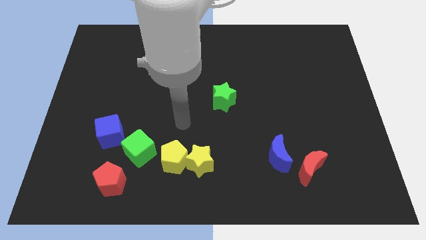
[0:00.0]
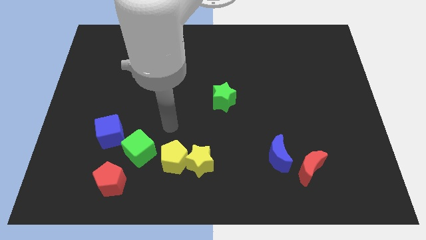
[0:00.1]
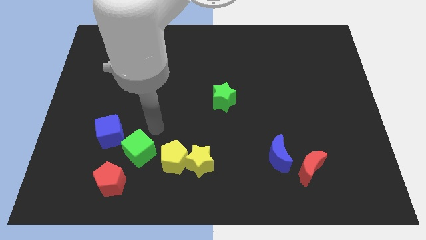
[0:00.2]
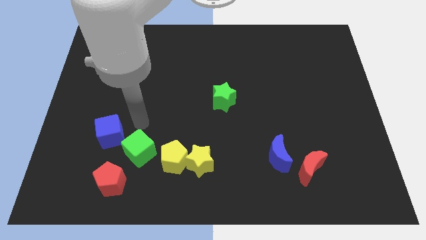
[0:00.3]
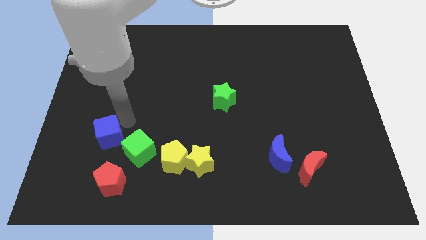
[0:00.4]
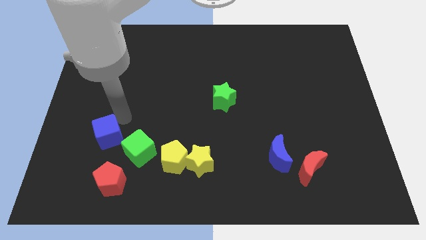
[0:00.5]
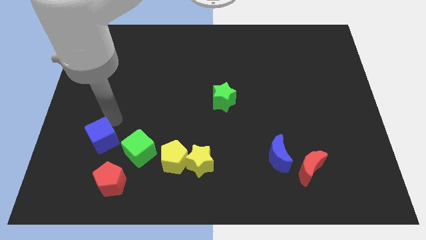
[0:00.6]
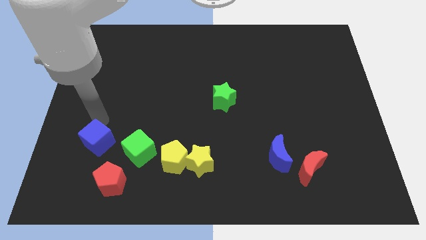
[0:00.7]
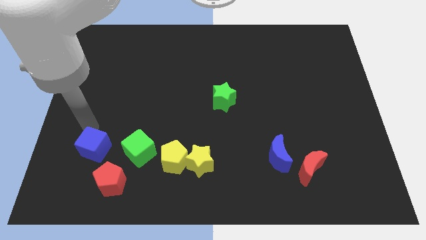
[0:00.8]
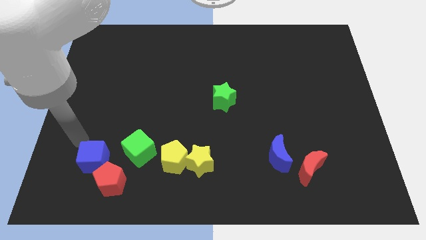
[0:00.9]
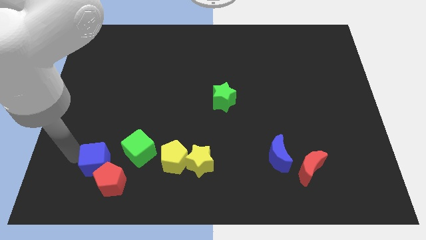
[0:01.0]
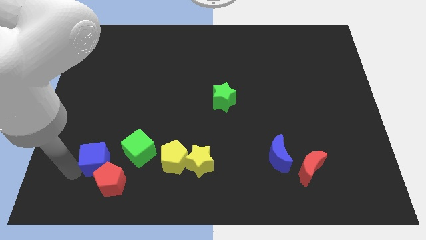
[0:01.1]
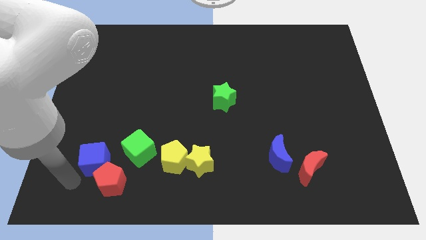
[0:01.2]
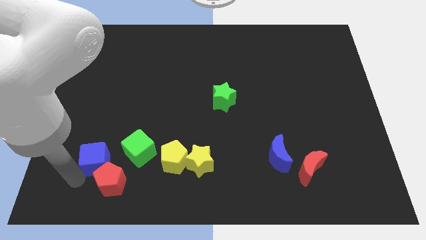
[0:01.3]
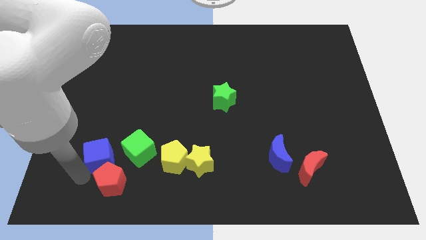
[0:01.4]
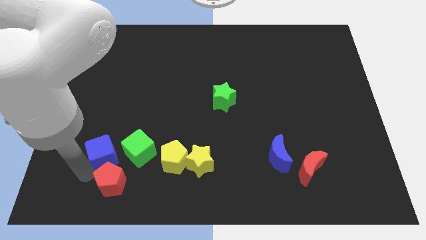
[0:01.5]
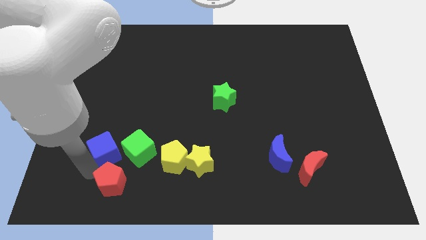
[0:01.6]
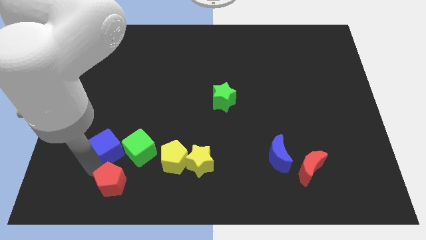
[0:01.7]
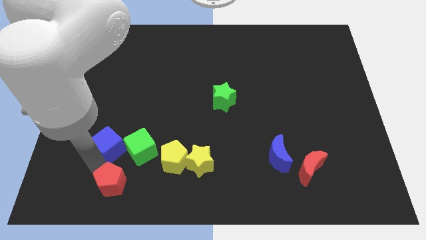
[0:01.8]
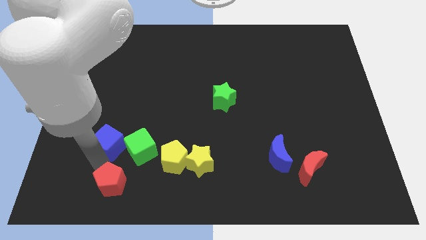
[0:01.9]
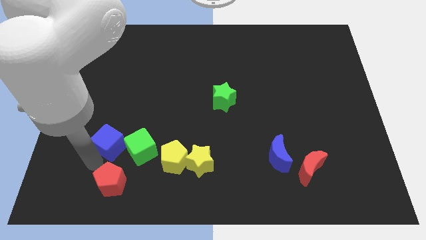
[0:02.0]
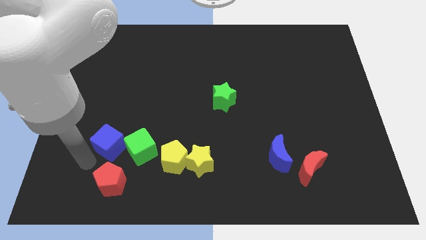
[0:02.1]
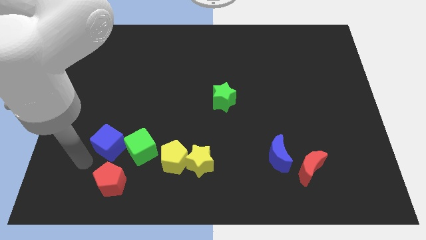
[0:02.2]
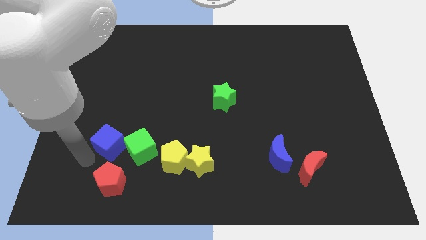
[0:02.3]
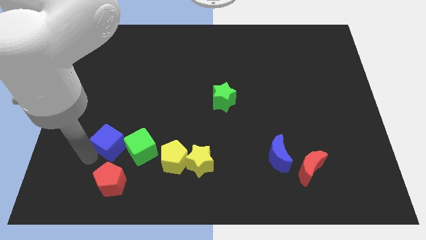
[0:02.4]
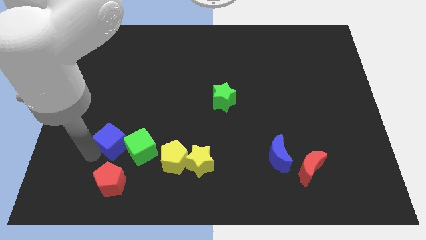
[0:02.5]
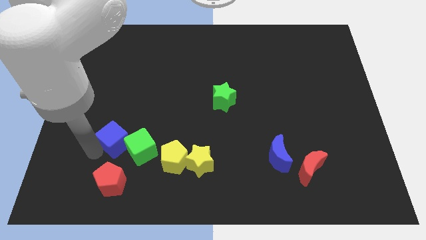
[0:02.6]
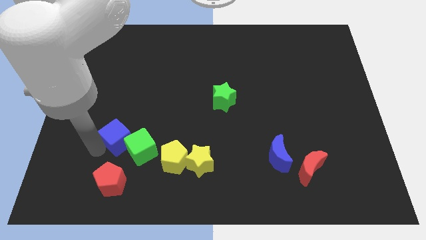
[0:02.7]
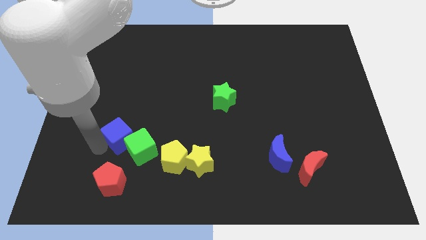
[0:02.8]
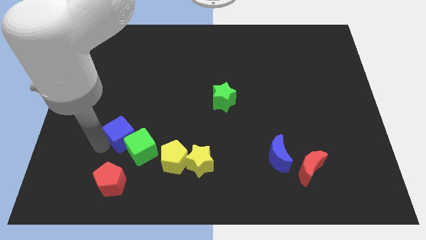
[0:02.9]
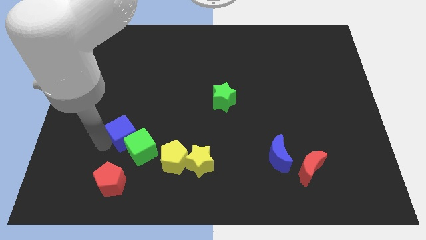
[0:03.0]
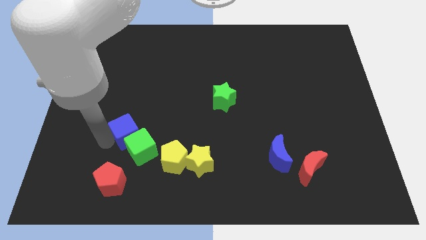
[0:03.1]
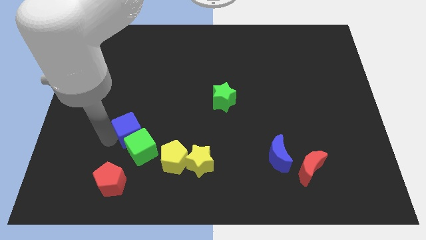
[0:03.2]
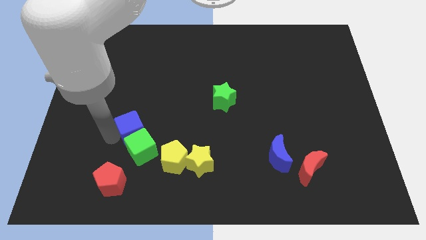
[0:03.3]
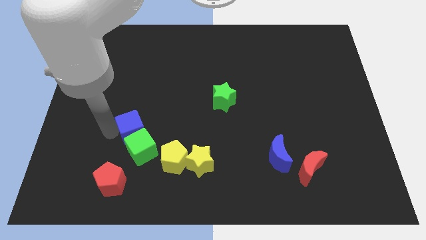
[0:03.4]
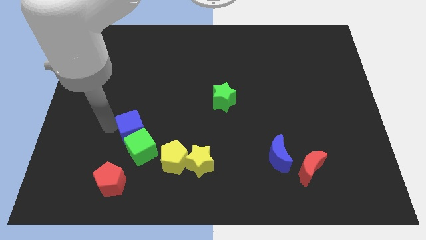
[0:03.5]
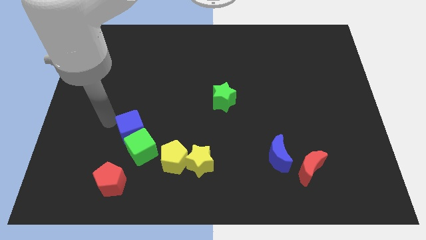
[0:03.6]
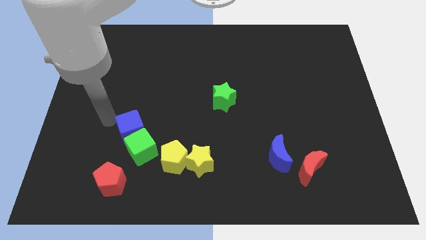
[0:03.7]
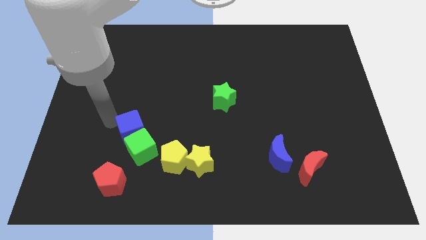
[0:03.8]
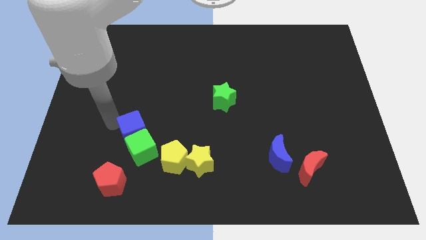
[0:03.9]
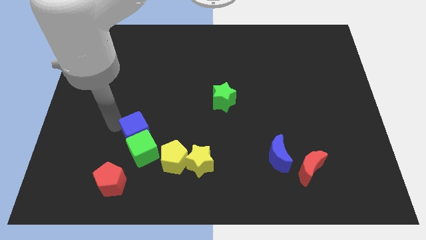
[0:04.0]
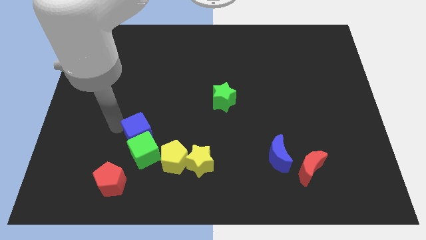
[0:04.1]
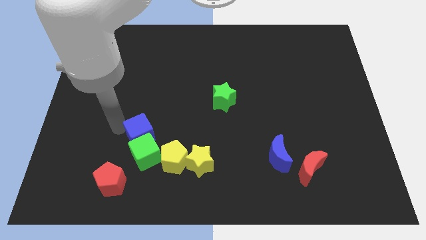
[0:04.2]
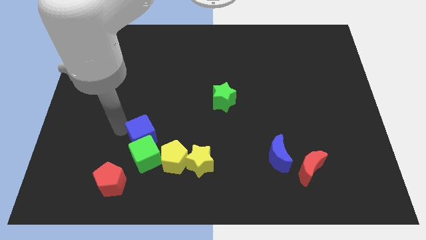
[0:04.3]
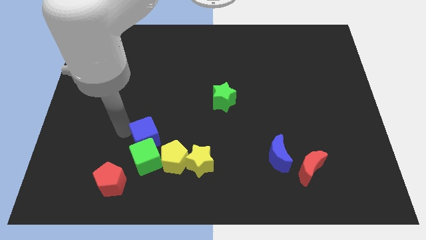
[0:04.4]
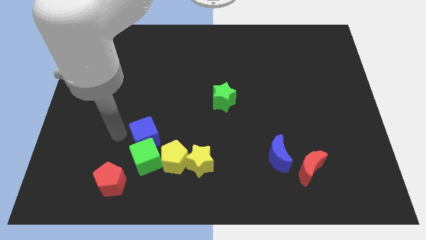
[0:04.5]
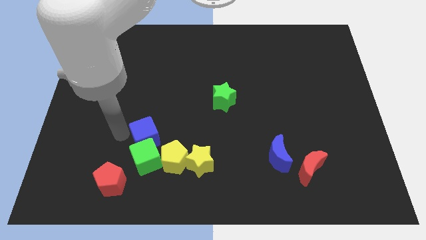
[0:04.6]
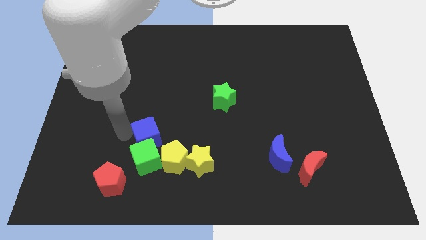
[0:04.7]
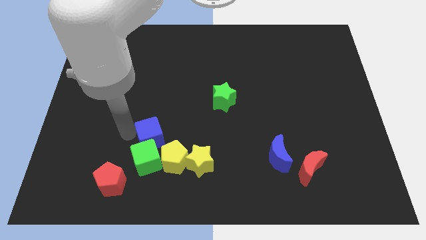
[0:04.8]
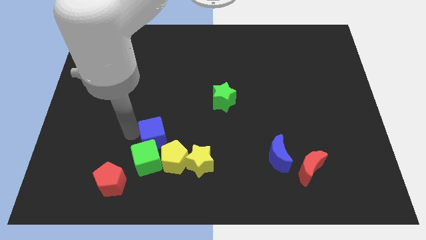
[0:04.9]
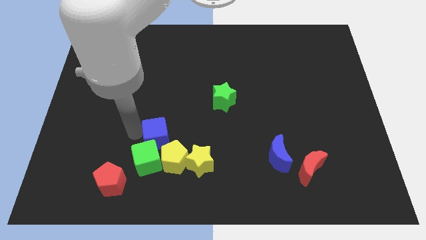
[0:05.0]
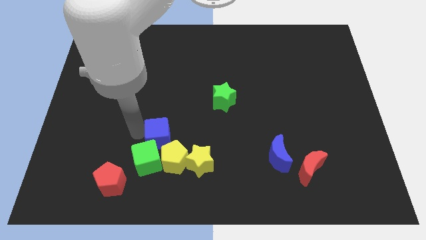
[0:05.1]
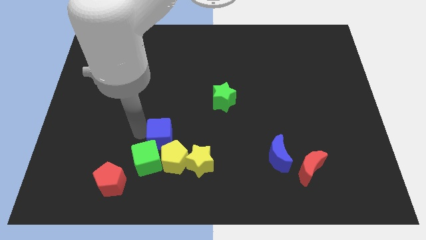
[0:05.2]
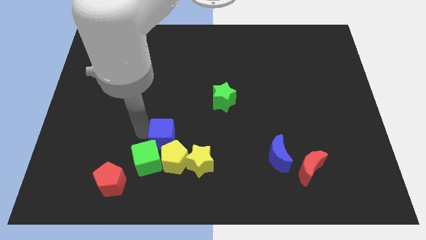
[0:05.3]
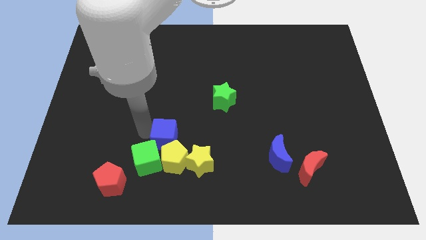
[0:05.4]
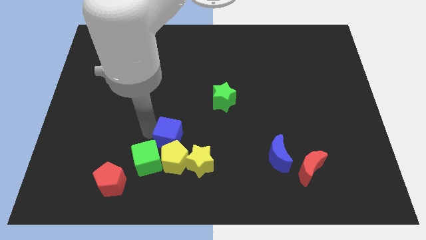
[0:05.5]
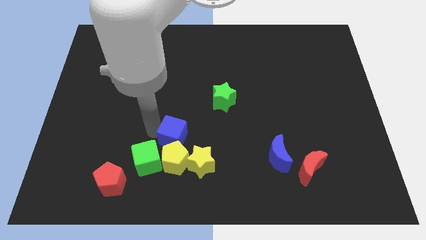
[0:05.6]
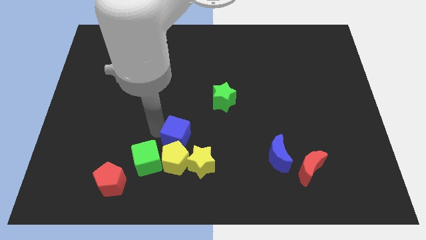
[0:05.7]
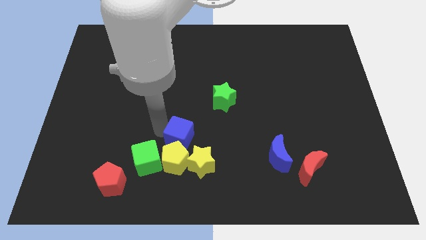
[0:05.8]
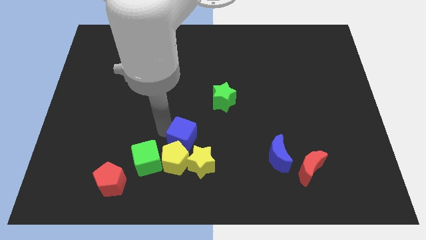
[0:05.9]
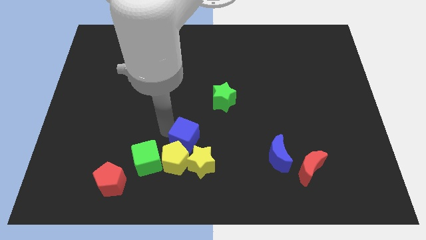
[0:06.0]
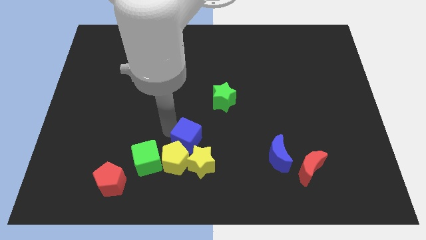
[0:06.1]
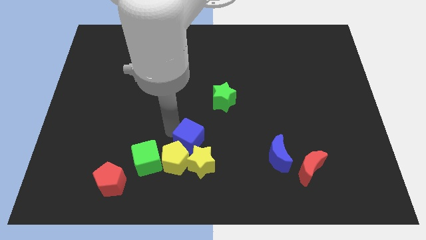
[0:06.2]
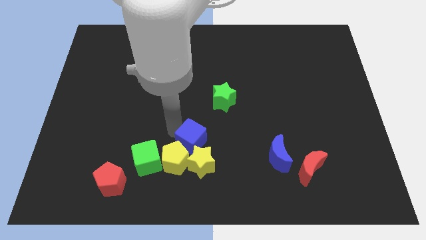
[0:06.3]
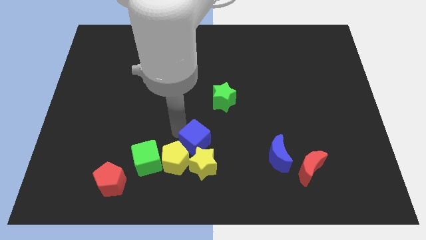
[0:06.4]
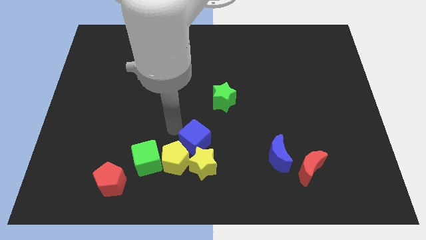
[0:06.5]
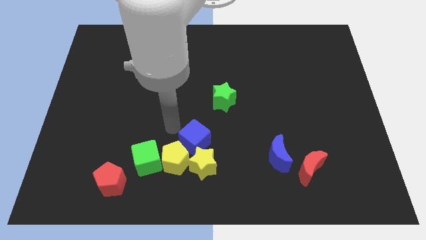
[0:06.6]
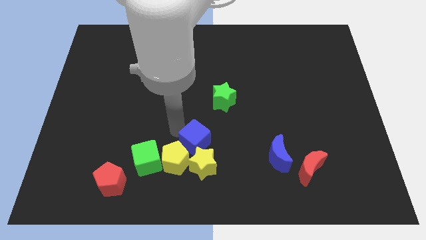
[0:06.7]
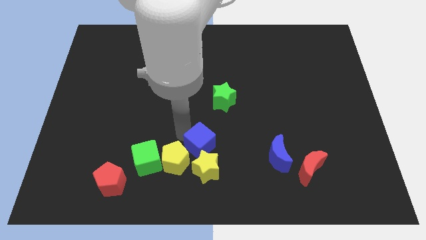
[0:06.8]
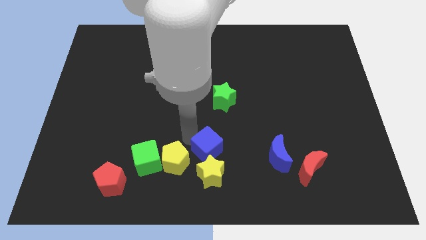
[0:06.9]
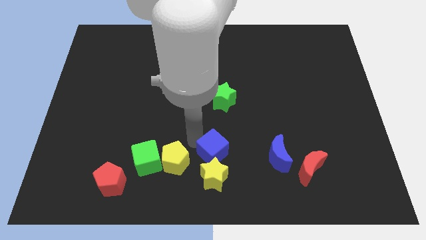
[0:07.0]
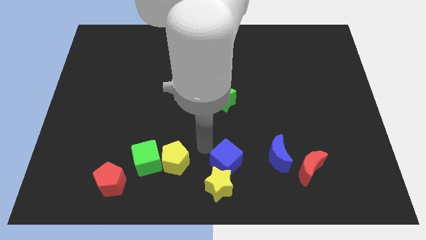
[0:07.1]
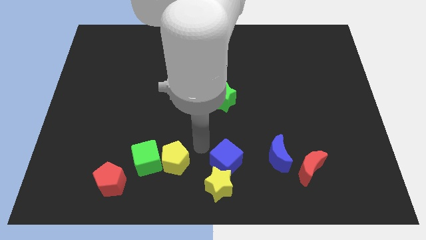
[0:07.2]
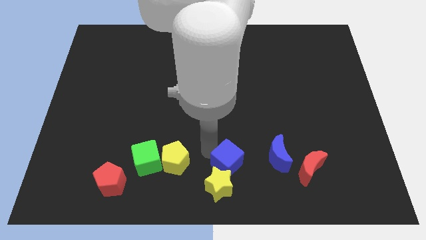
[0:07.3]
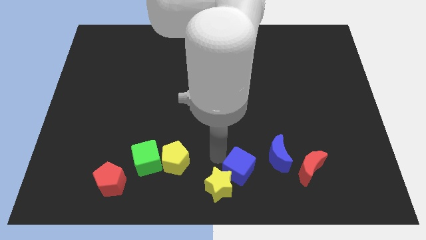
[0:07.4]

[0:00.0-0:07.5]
slide the blue cube just right of the yellow star
